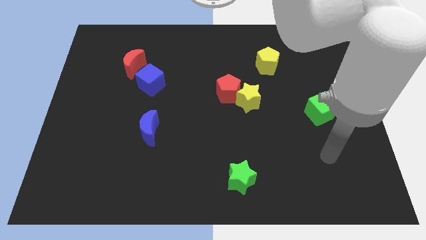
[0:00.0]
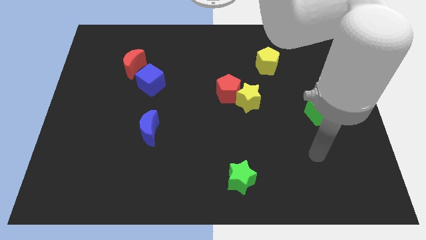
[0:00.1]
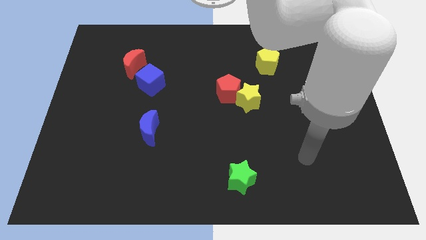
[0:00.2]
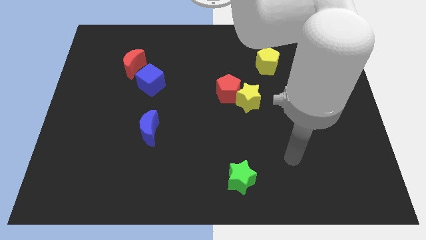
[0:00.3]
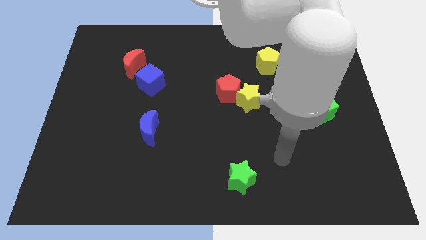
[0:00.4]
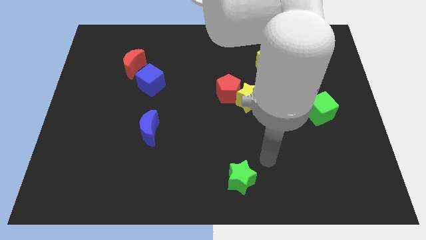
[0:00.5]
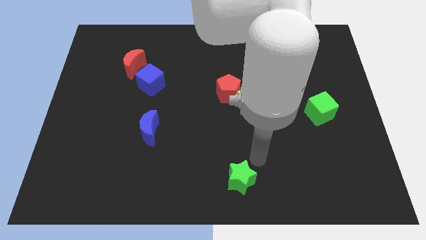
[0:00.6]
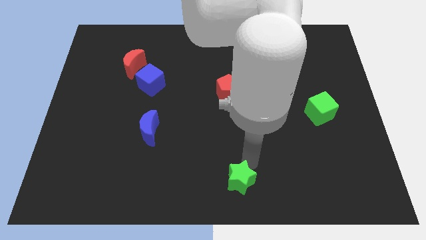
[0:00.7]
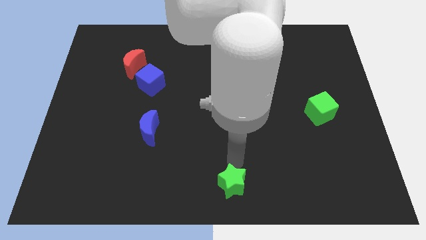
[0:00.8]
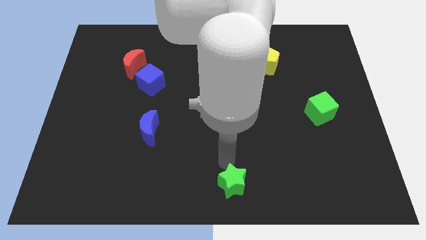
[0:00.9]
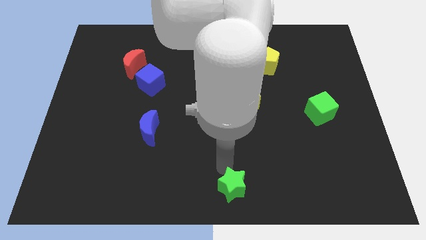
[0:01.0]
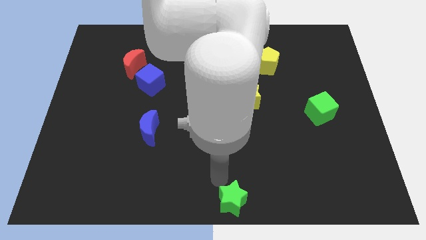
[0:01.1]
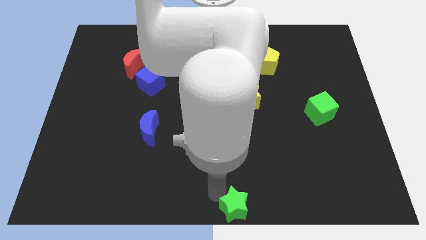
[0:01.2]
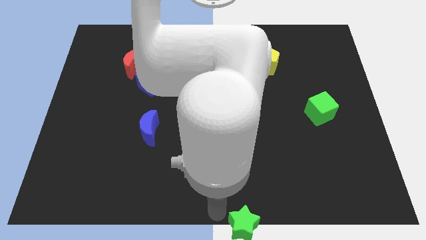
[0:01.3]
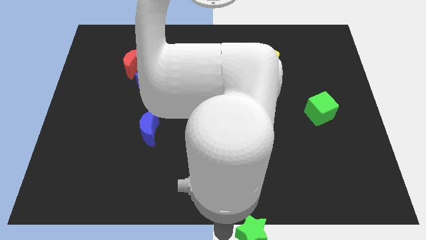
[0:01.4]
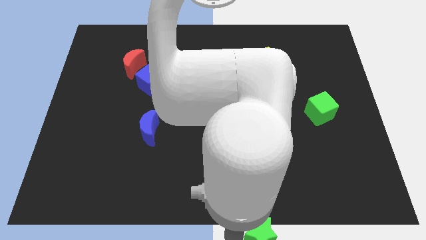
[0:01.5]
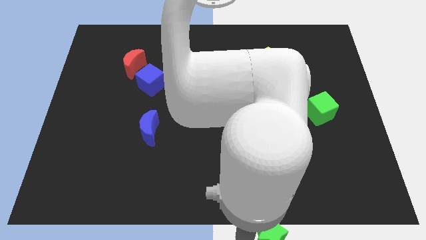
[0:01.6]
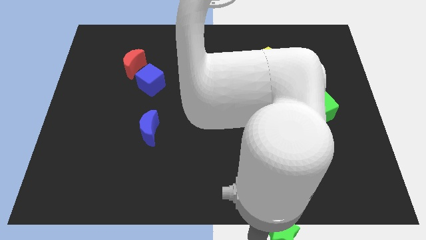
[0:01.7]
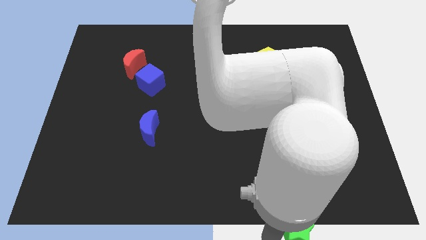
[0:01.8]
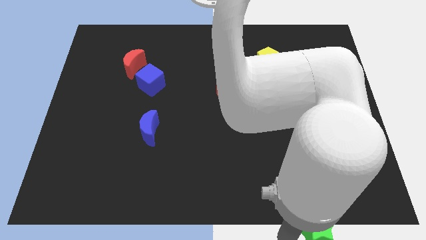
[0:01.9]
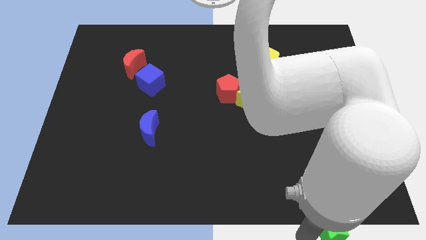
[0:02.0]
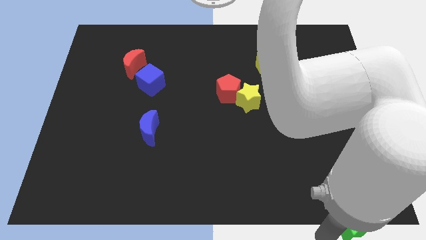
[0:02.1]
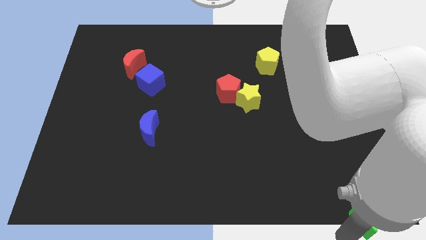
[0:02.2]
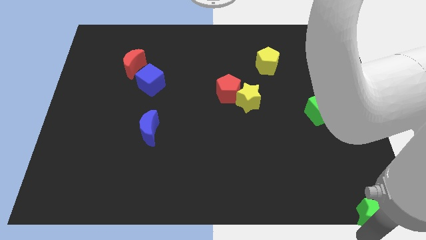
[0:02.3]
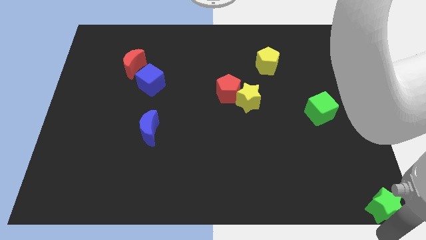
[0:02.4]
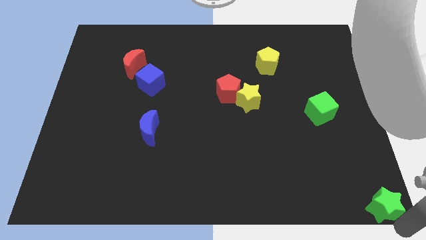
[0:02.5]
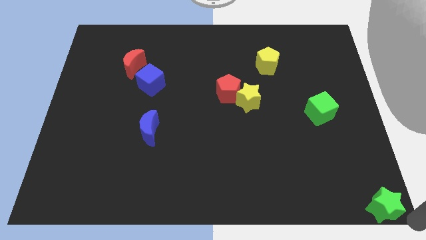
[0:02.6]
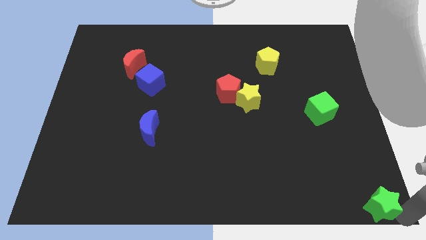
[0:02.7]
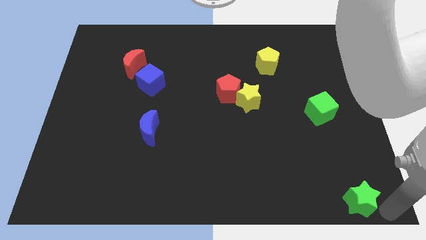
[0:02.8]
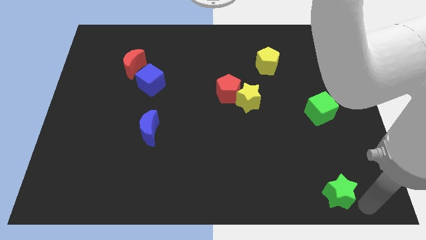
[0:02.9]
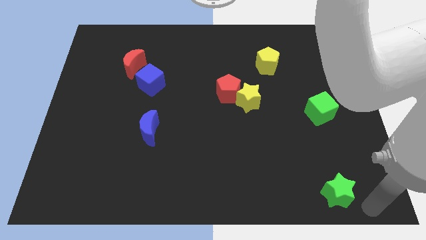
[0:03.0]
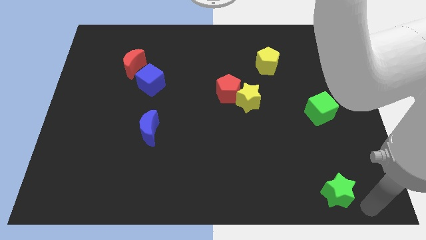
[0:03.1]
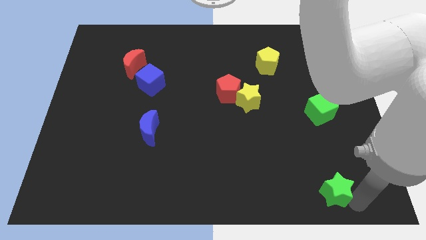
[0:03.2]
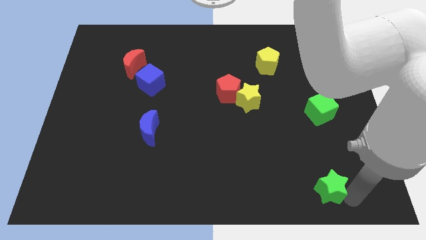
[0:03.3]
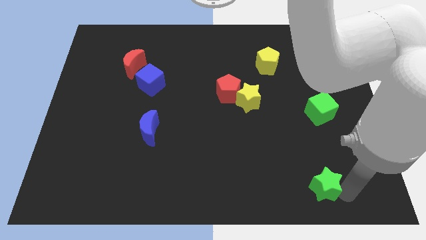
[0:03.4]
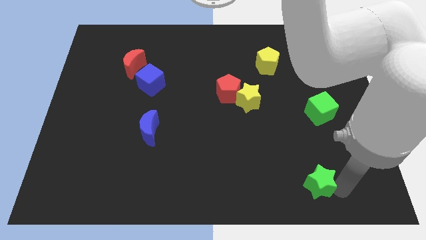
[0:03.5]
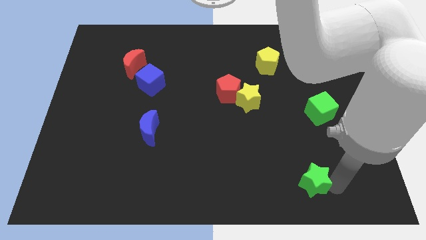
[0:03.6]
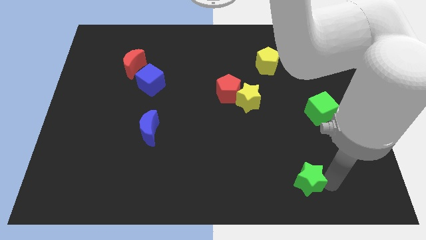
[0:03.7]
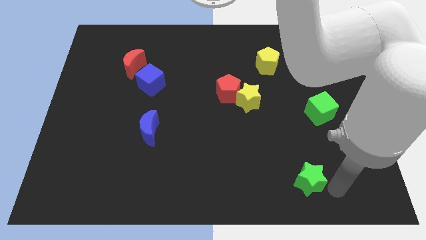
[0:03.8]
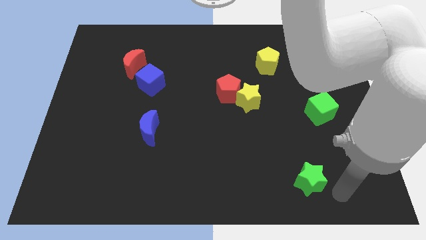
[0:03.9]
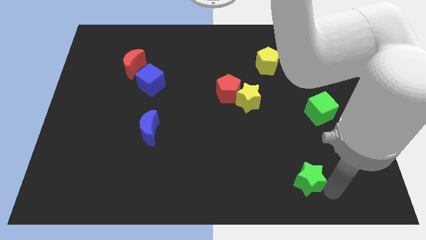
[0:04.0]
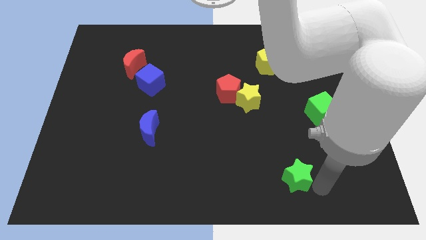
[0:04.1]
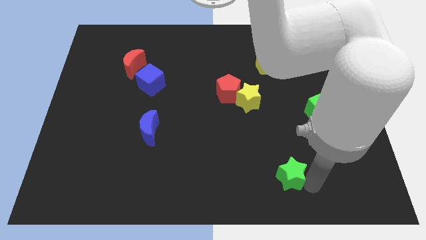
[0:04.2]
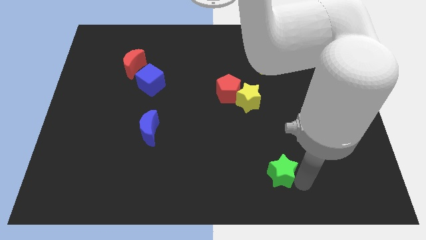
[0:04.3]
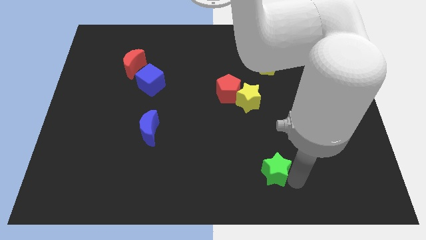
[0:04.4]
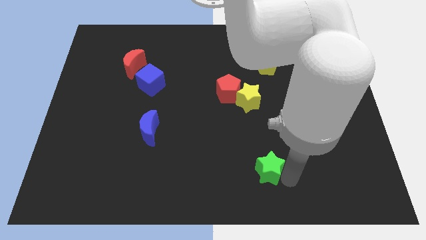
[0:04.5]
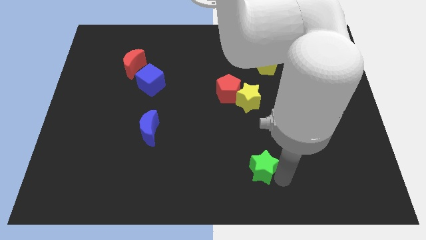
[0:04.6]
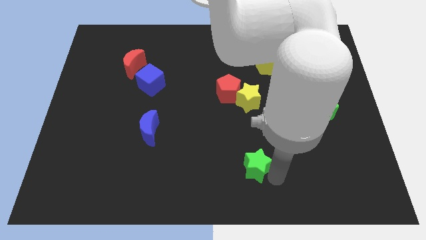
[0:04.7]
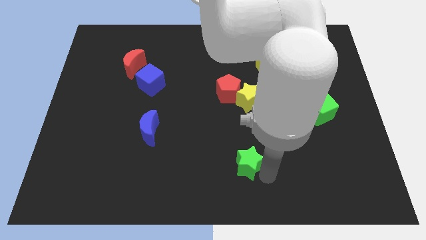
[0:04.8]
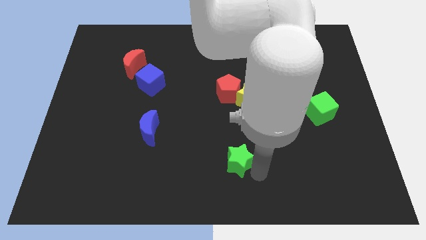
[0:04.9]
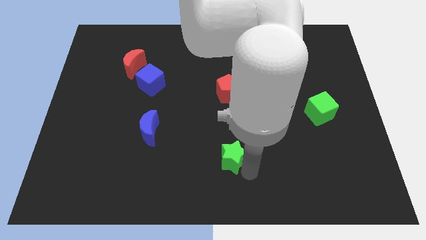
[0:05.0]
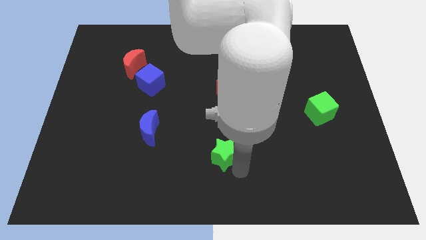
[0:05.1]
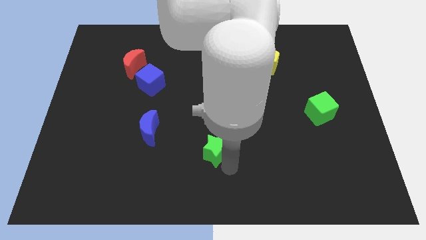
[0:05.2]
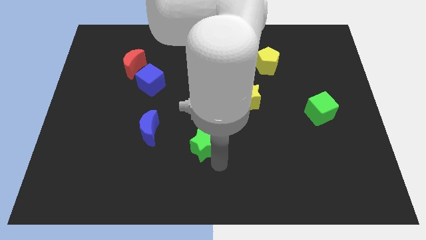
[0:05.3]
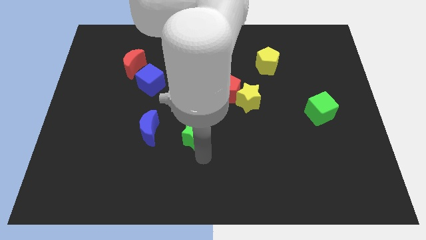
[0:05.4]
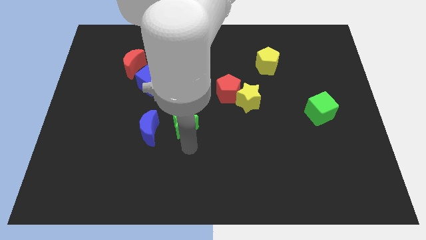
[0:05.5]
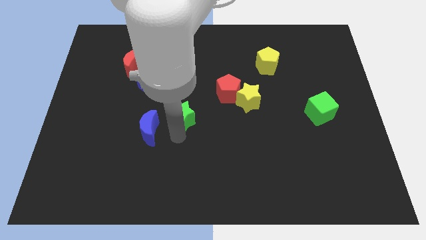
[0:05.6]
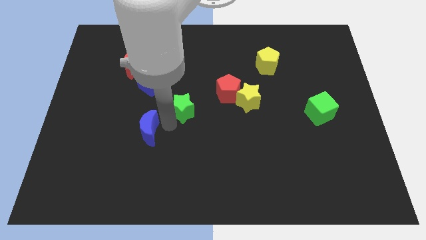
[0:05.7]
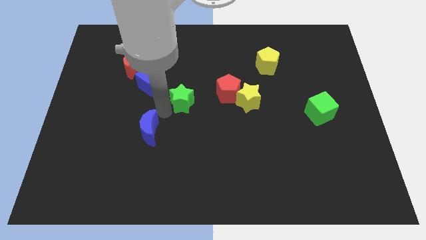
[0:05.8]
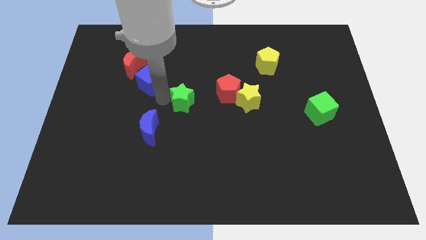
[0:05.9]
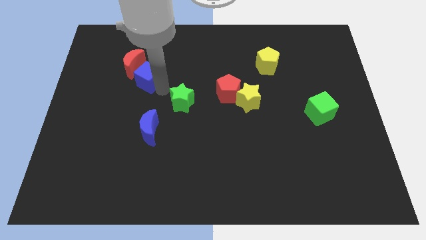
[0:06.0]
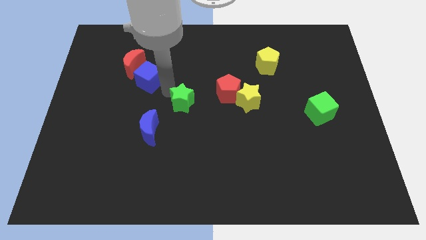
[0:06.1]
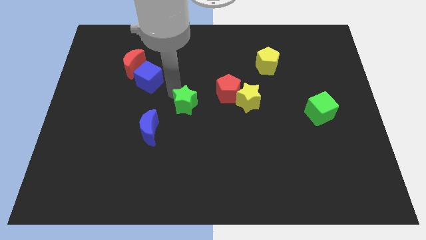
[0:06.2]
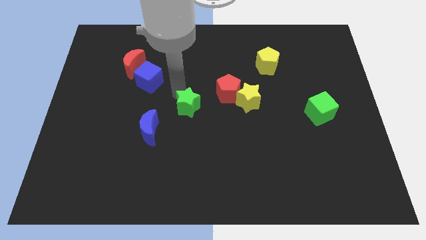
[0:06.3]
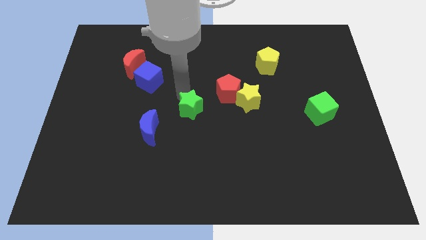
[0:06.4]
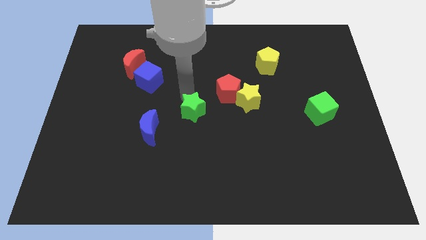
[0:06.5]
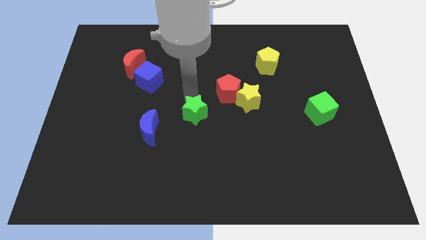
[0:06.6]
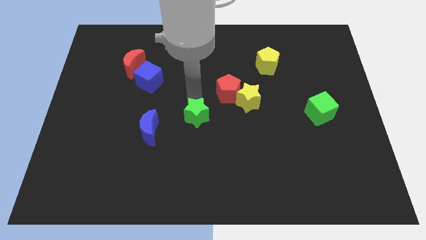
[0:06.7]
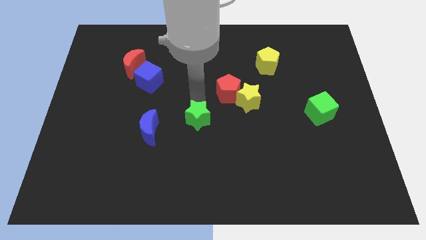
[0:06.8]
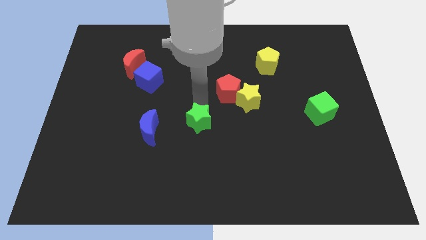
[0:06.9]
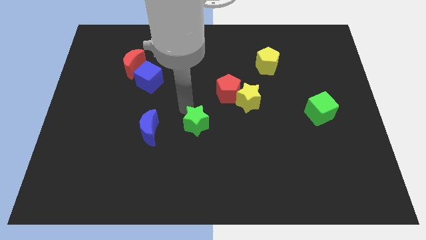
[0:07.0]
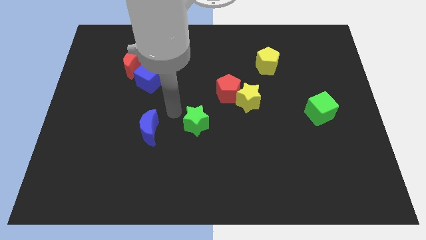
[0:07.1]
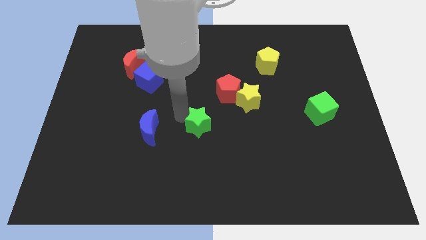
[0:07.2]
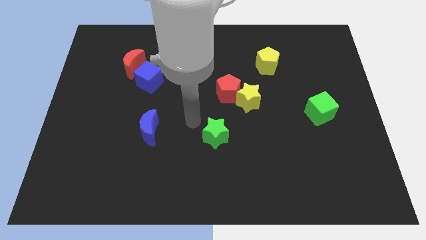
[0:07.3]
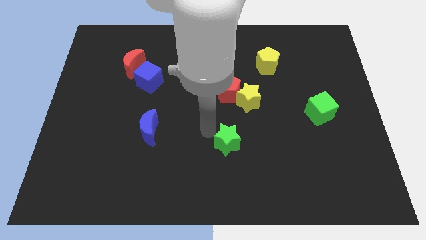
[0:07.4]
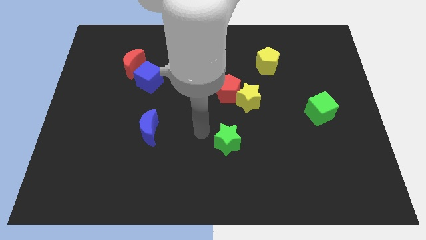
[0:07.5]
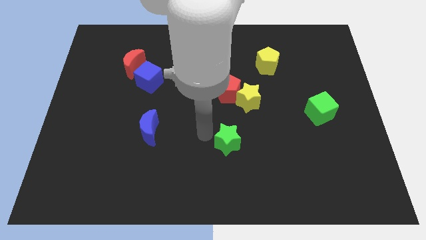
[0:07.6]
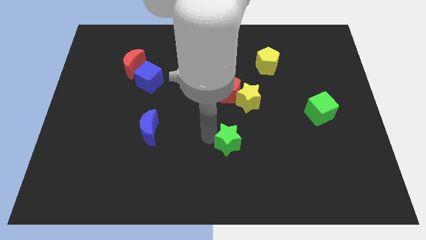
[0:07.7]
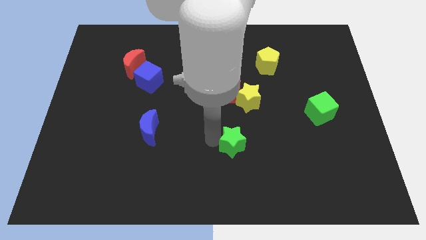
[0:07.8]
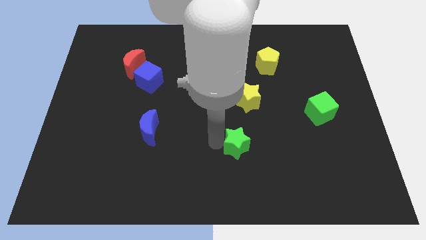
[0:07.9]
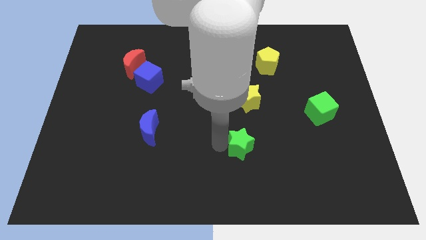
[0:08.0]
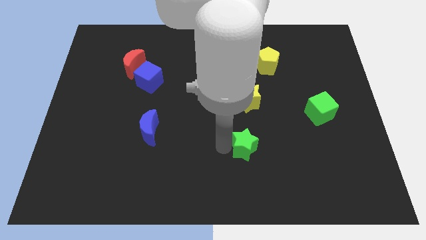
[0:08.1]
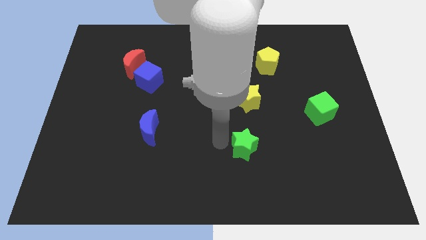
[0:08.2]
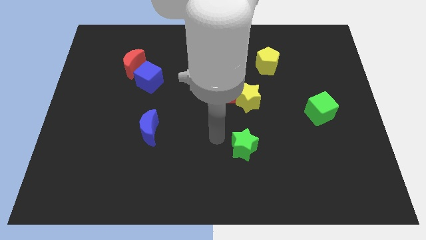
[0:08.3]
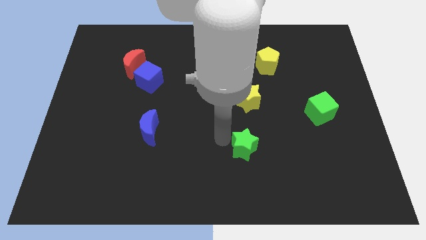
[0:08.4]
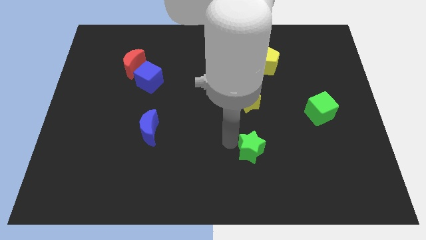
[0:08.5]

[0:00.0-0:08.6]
slightly move the green star up and then right
